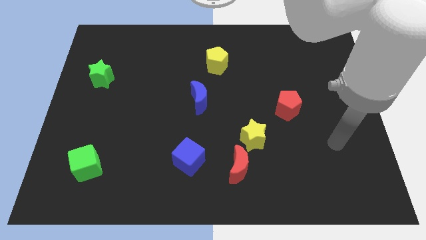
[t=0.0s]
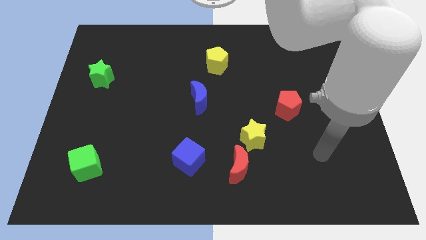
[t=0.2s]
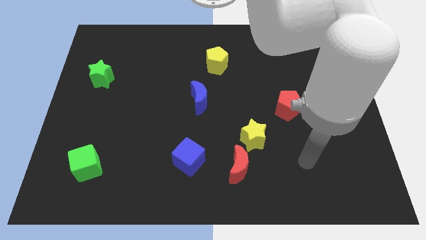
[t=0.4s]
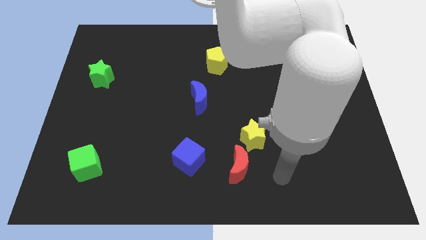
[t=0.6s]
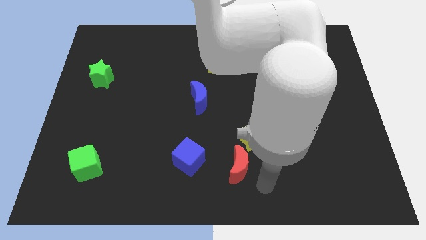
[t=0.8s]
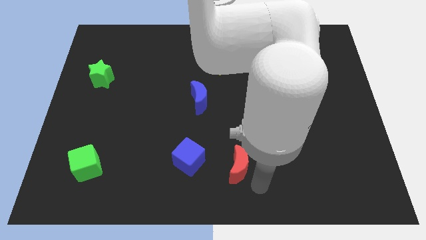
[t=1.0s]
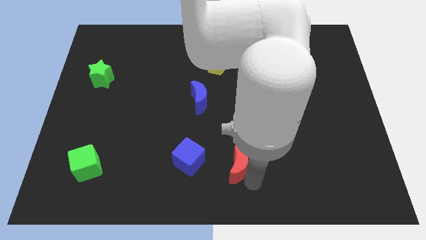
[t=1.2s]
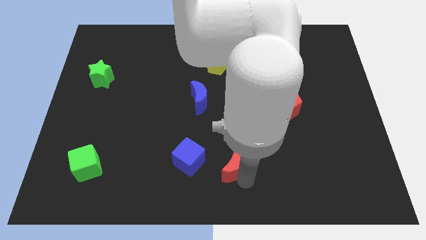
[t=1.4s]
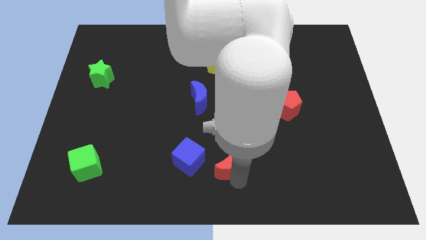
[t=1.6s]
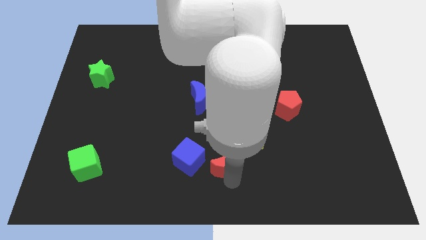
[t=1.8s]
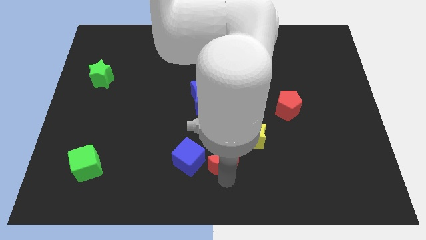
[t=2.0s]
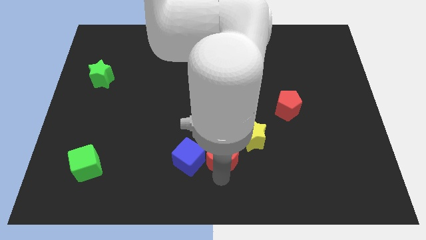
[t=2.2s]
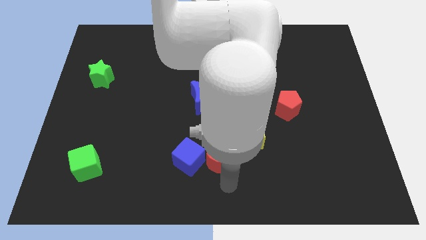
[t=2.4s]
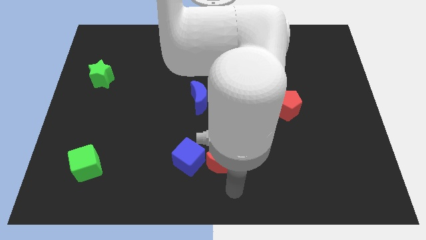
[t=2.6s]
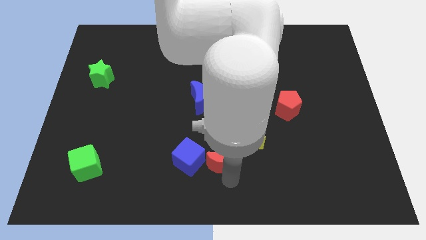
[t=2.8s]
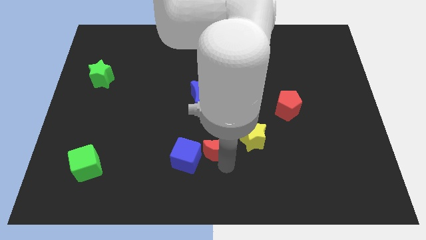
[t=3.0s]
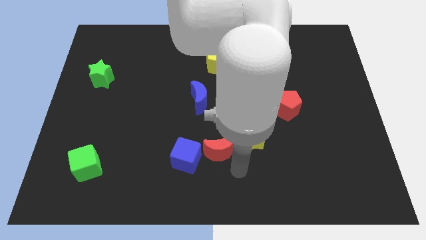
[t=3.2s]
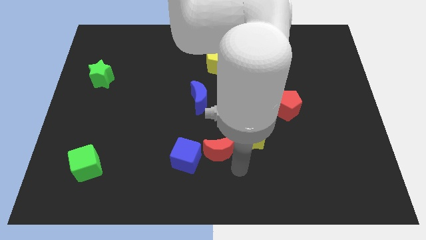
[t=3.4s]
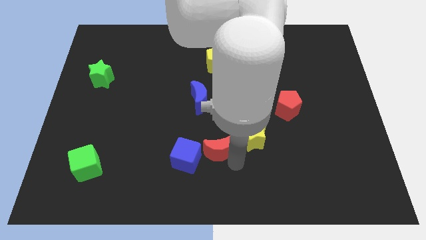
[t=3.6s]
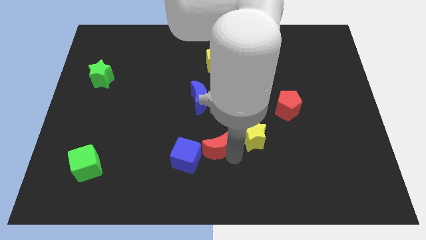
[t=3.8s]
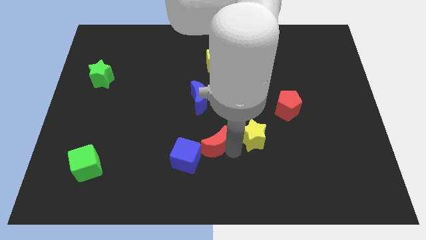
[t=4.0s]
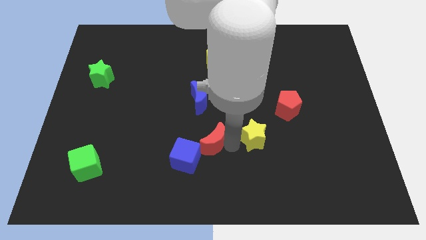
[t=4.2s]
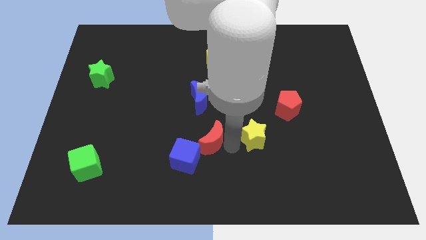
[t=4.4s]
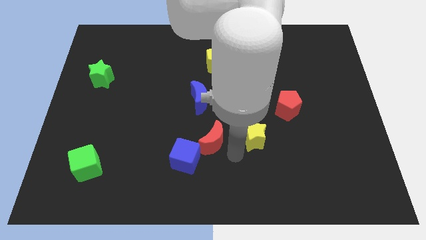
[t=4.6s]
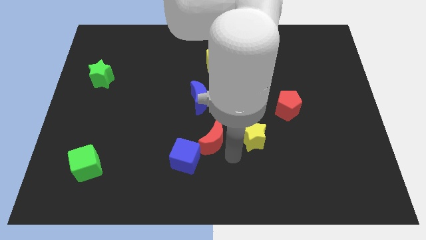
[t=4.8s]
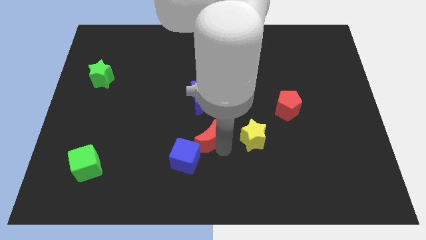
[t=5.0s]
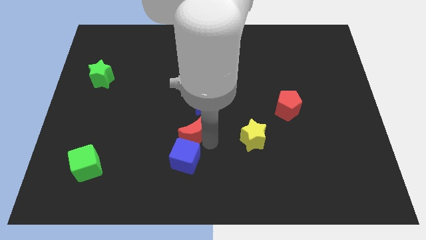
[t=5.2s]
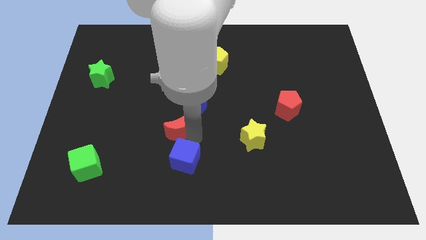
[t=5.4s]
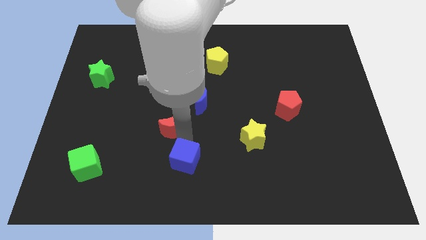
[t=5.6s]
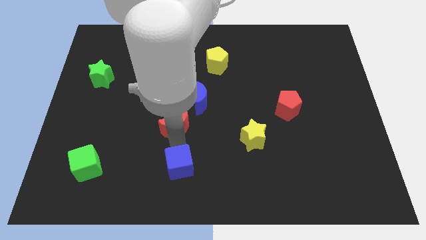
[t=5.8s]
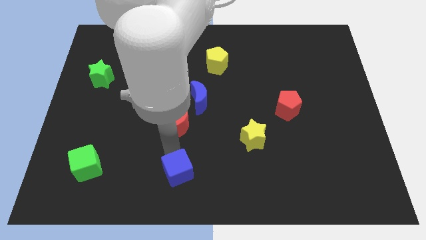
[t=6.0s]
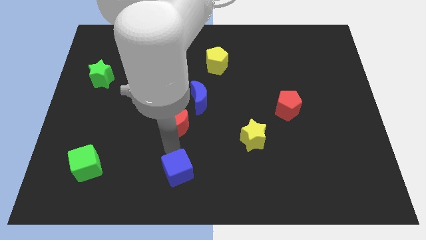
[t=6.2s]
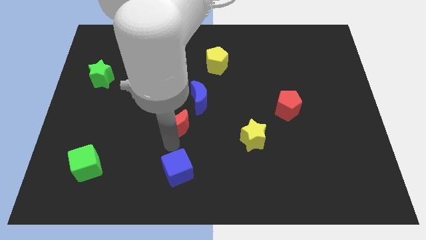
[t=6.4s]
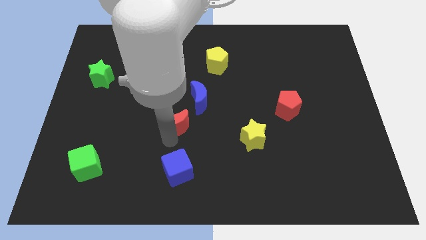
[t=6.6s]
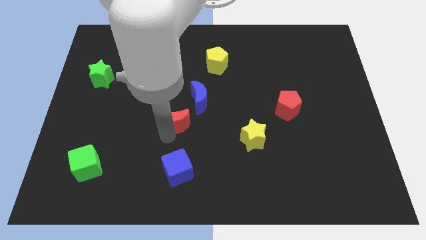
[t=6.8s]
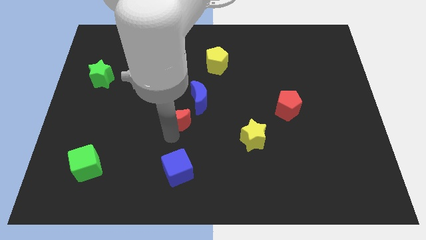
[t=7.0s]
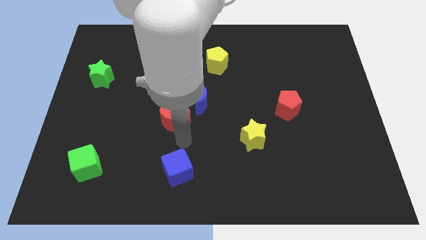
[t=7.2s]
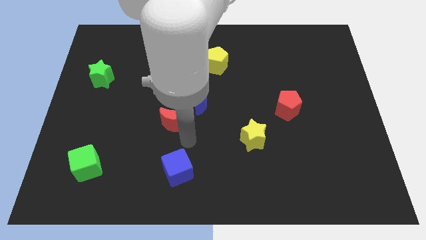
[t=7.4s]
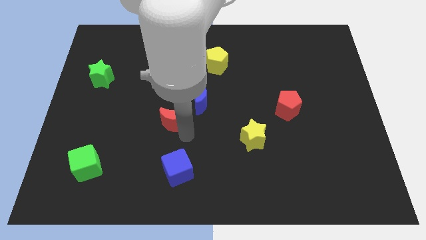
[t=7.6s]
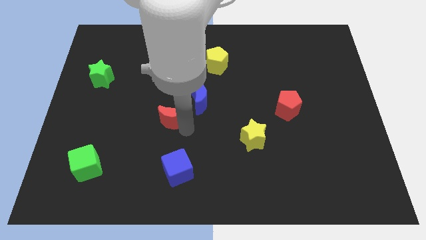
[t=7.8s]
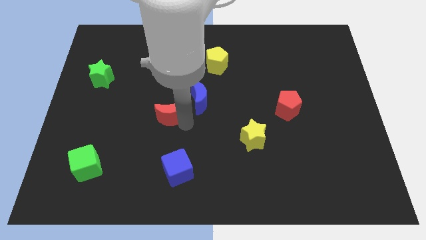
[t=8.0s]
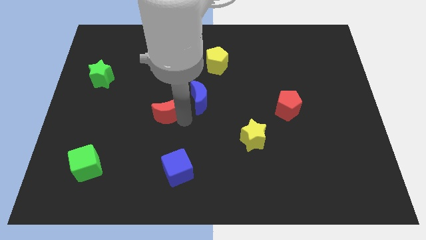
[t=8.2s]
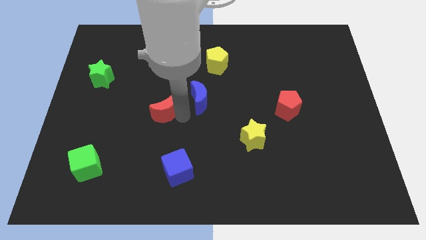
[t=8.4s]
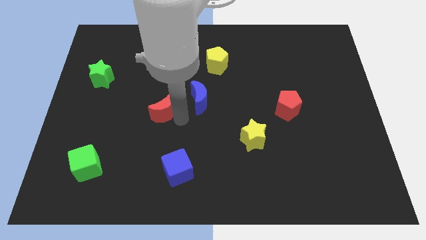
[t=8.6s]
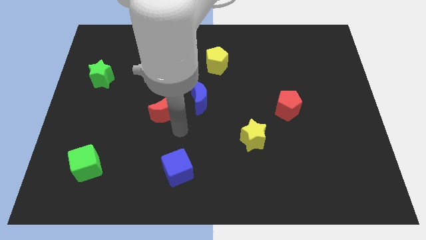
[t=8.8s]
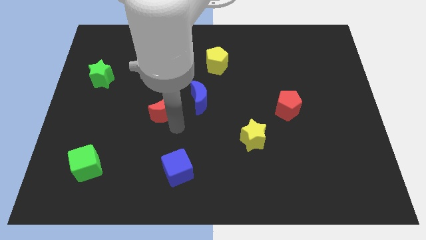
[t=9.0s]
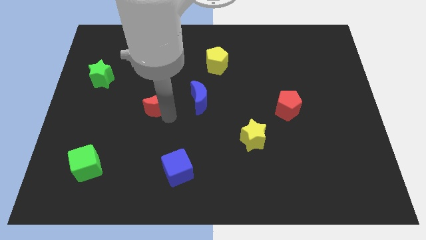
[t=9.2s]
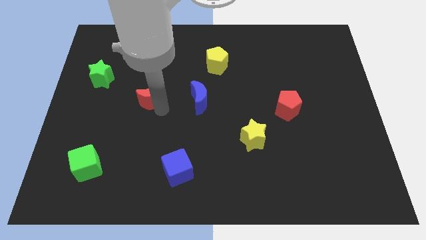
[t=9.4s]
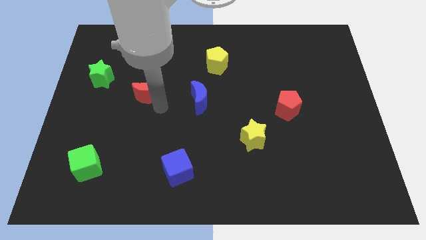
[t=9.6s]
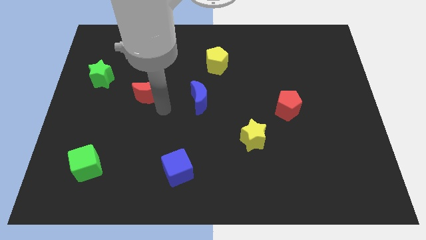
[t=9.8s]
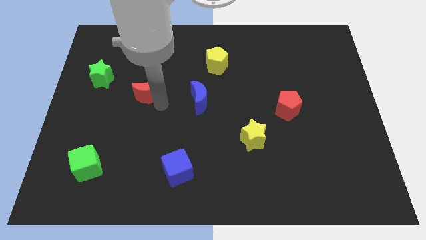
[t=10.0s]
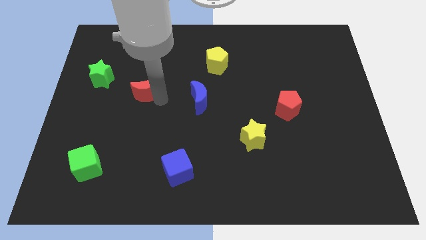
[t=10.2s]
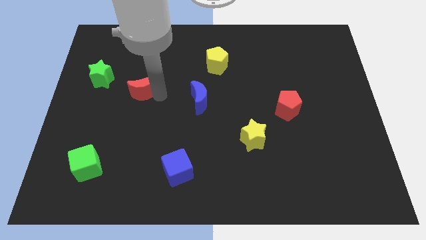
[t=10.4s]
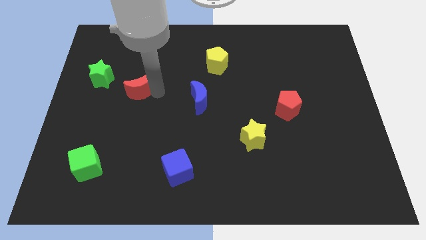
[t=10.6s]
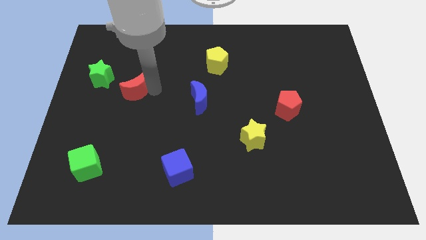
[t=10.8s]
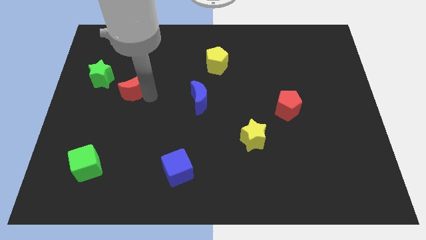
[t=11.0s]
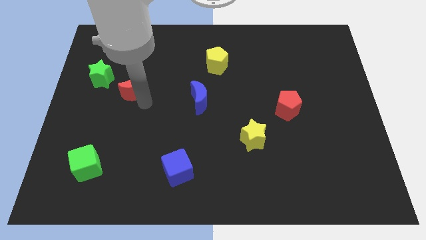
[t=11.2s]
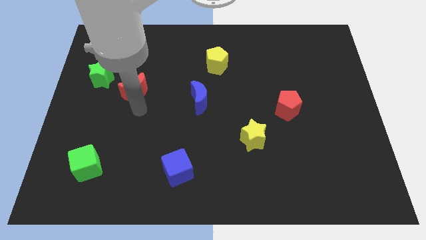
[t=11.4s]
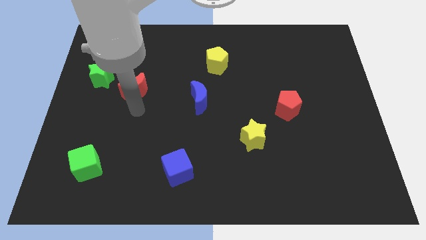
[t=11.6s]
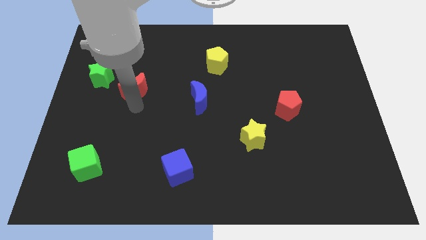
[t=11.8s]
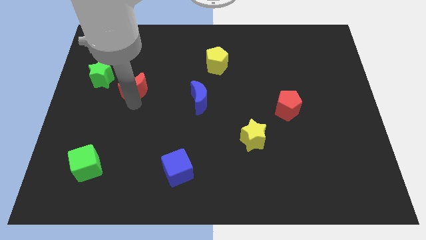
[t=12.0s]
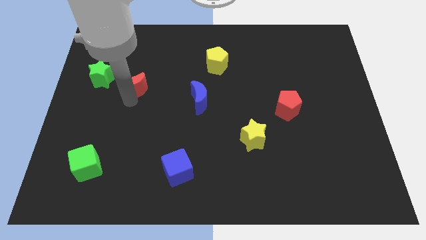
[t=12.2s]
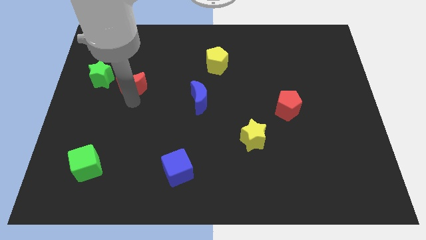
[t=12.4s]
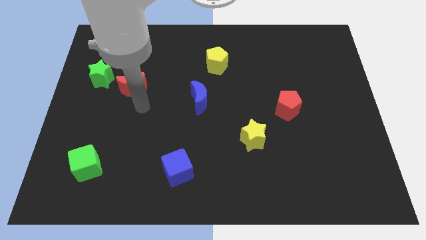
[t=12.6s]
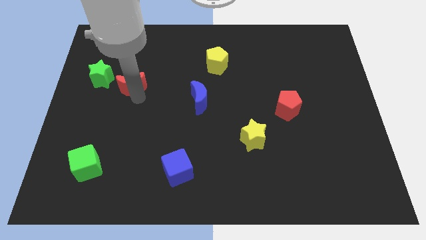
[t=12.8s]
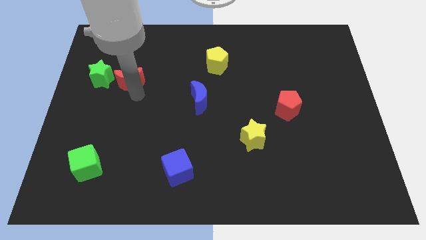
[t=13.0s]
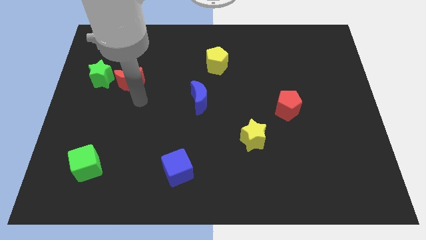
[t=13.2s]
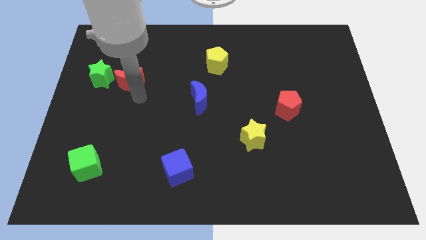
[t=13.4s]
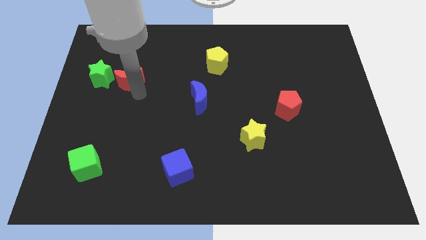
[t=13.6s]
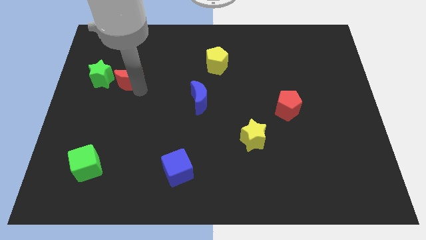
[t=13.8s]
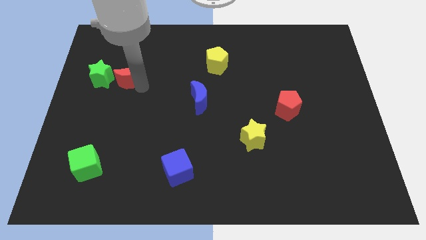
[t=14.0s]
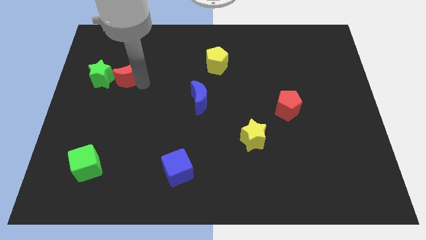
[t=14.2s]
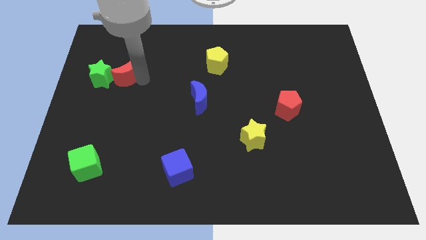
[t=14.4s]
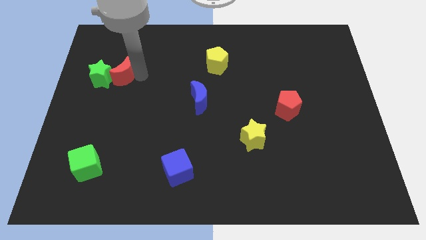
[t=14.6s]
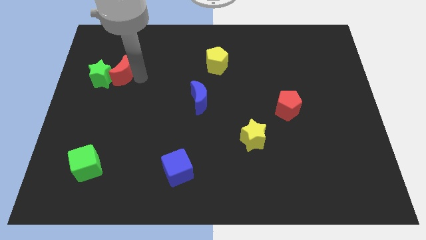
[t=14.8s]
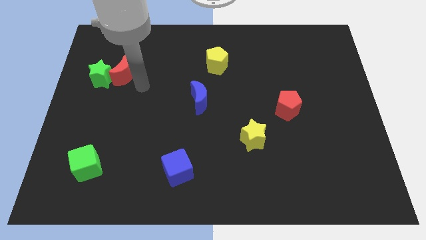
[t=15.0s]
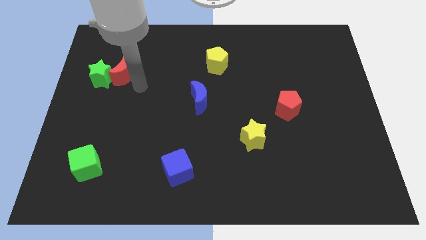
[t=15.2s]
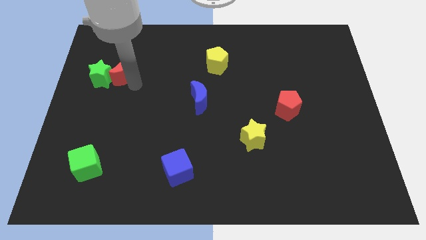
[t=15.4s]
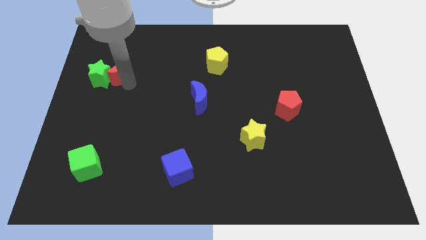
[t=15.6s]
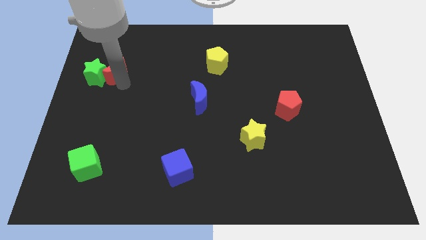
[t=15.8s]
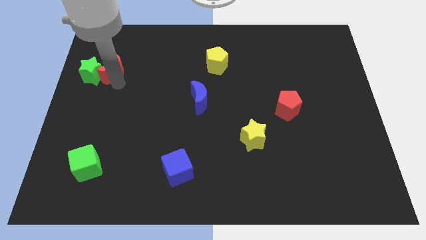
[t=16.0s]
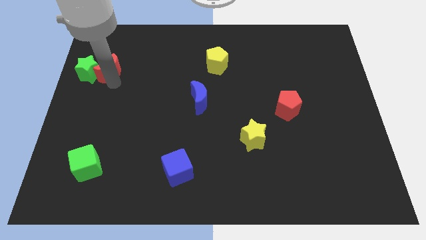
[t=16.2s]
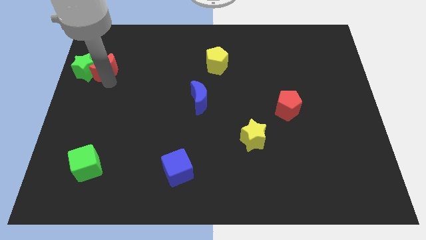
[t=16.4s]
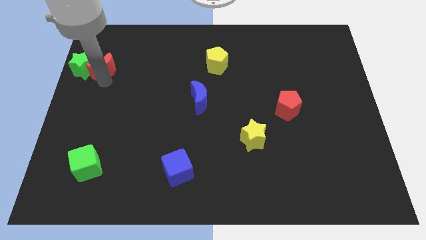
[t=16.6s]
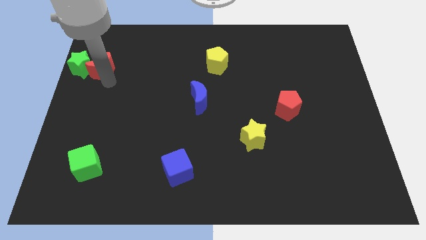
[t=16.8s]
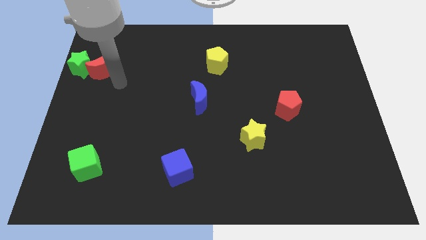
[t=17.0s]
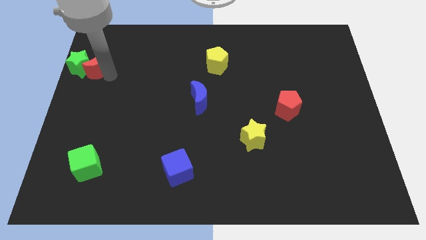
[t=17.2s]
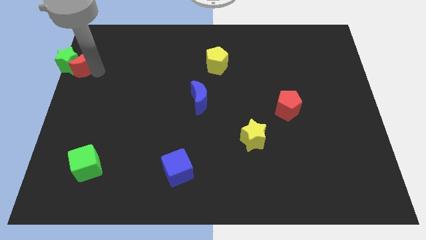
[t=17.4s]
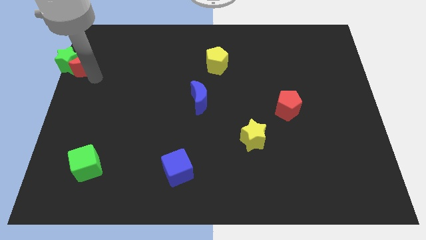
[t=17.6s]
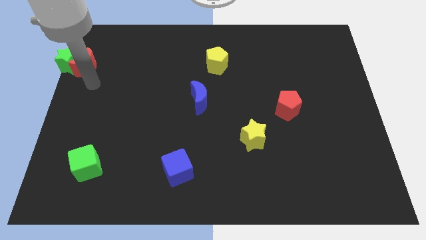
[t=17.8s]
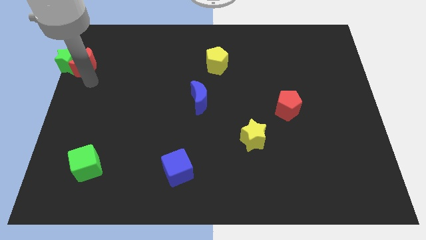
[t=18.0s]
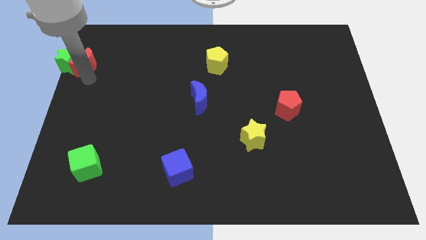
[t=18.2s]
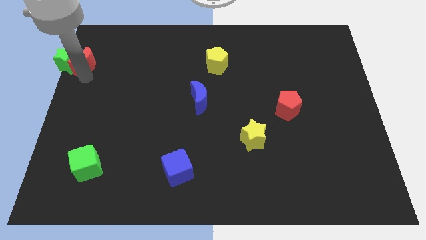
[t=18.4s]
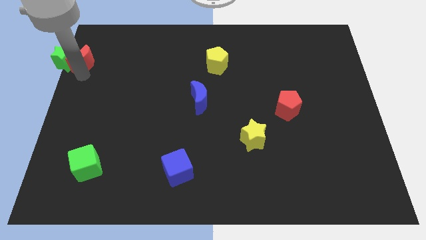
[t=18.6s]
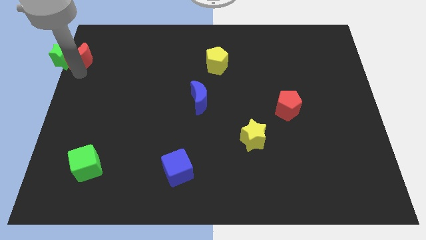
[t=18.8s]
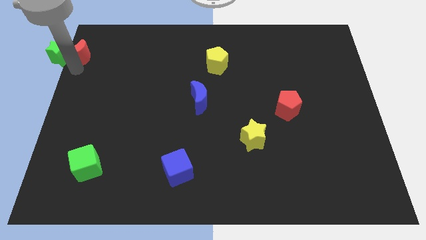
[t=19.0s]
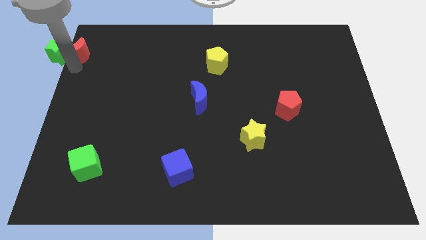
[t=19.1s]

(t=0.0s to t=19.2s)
move the red moon to the upper left corner
